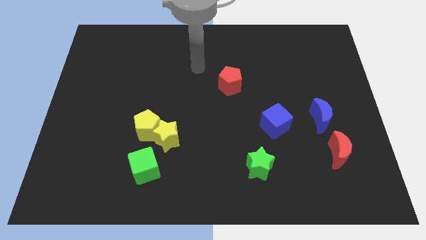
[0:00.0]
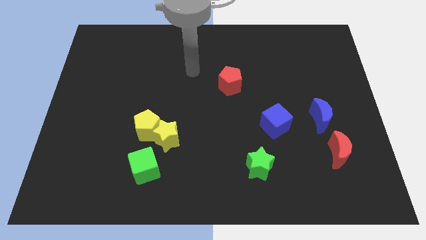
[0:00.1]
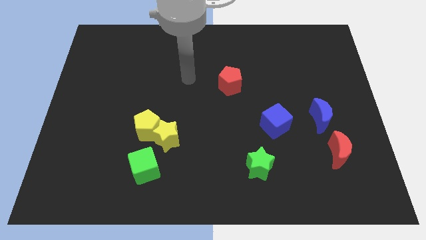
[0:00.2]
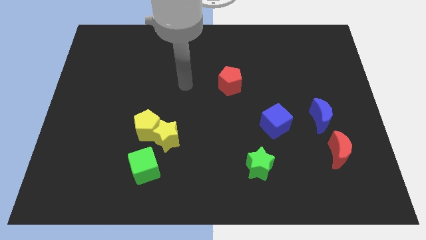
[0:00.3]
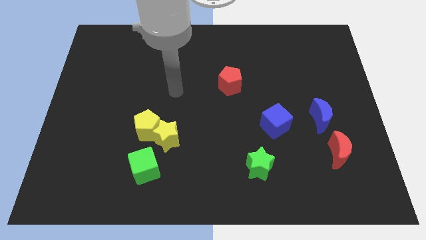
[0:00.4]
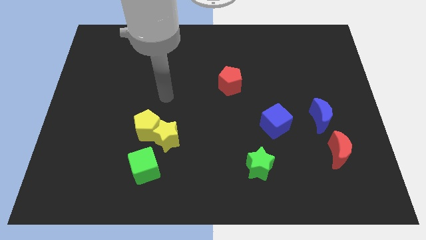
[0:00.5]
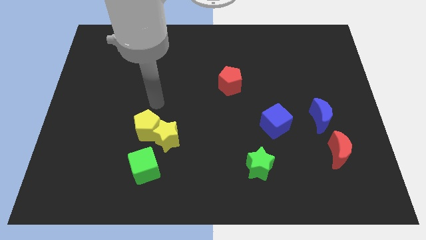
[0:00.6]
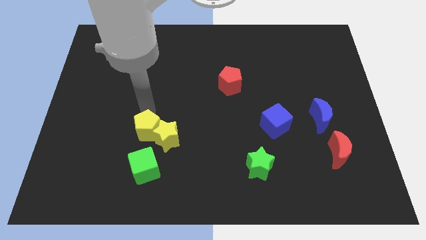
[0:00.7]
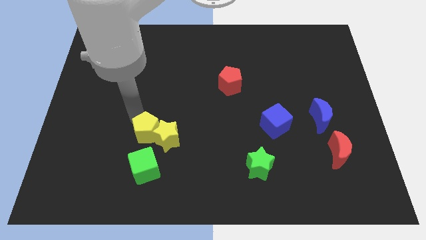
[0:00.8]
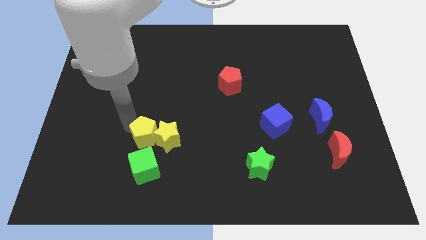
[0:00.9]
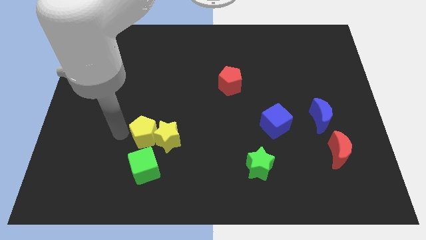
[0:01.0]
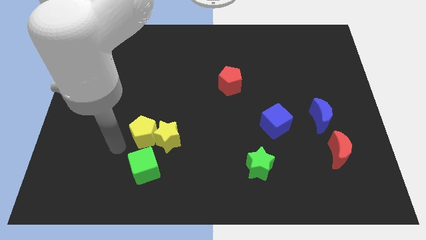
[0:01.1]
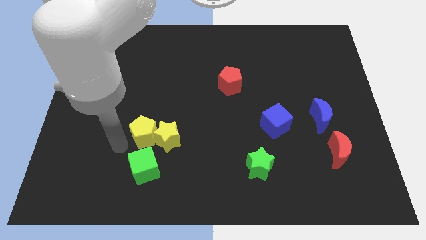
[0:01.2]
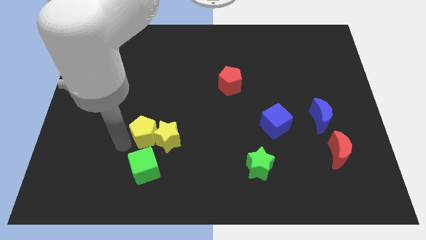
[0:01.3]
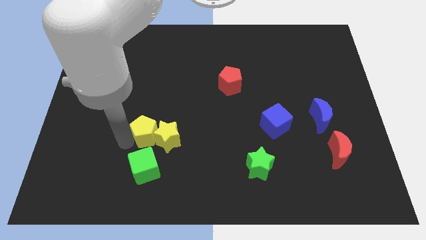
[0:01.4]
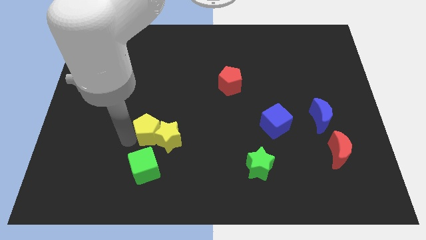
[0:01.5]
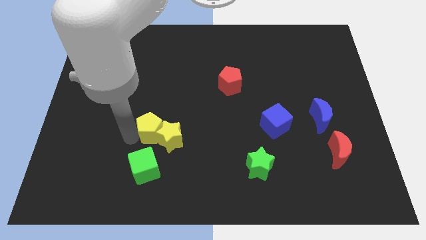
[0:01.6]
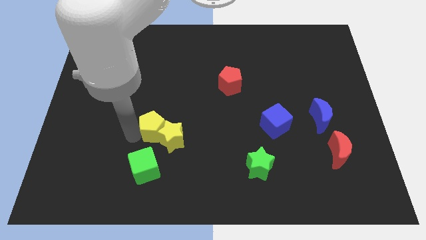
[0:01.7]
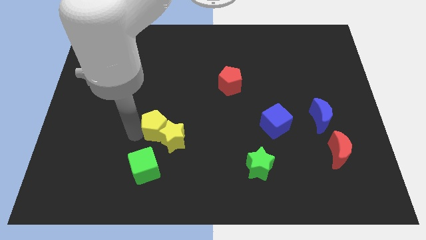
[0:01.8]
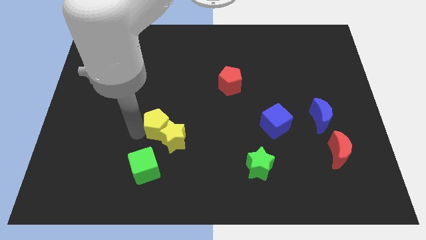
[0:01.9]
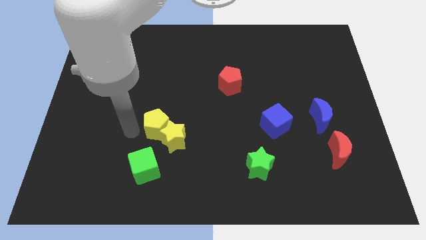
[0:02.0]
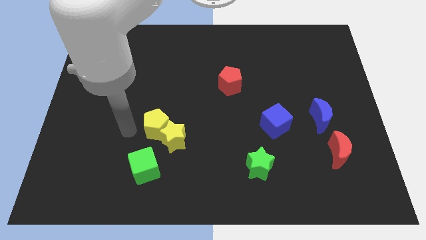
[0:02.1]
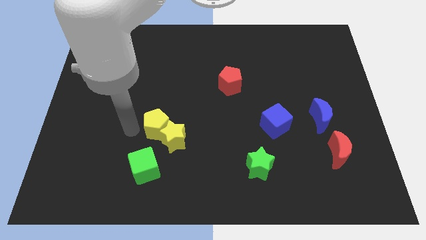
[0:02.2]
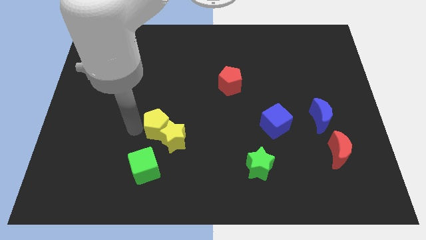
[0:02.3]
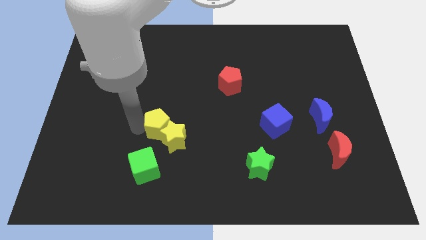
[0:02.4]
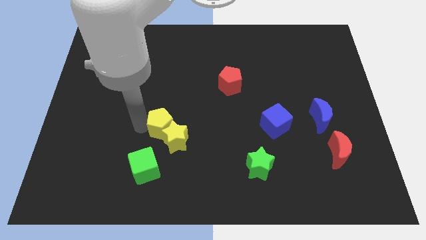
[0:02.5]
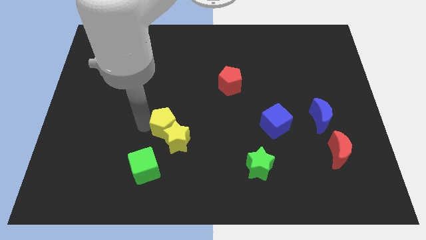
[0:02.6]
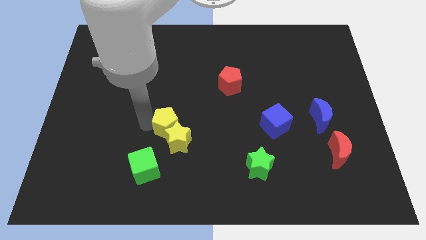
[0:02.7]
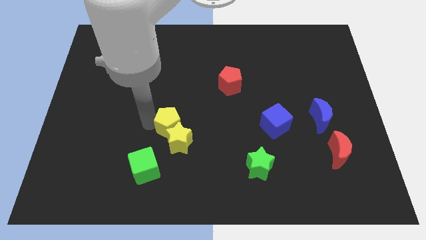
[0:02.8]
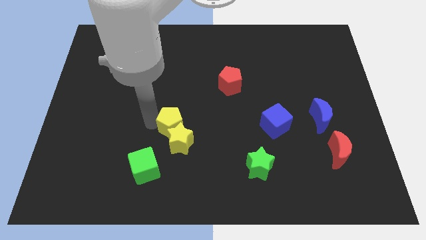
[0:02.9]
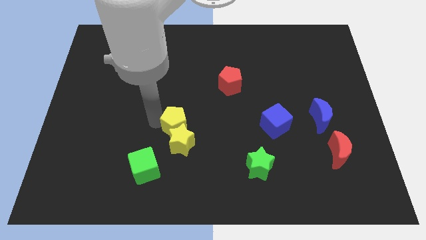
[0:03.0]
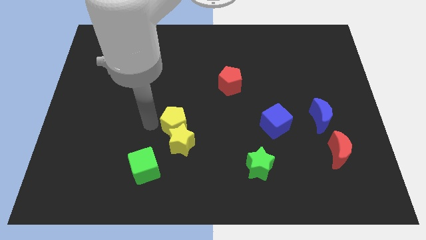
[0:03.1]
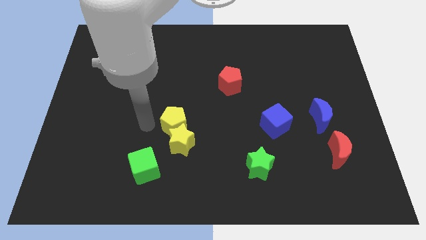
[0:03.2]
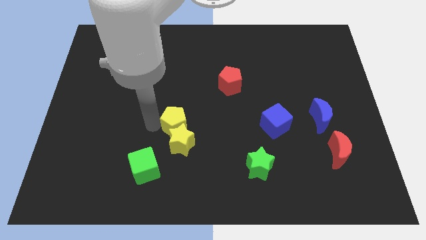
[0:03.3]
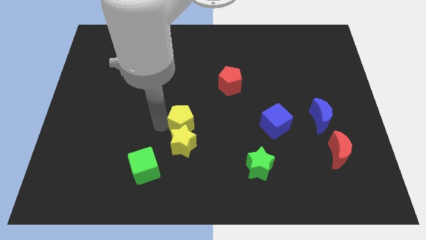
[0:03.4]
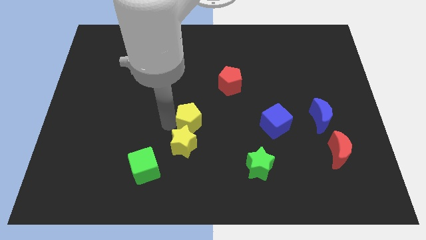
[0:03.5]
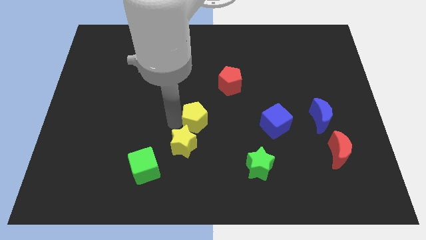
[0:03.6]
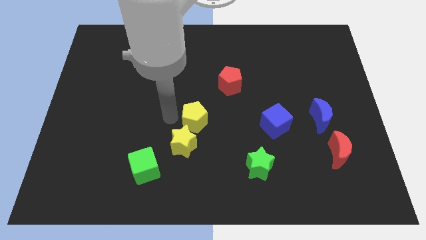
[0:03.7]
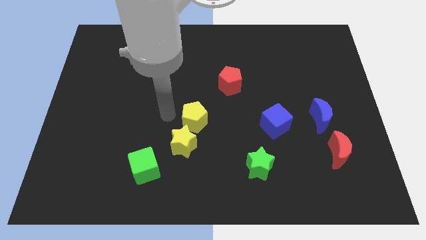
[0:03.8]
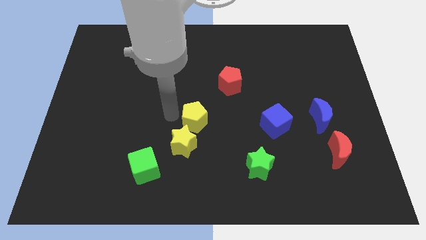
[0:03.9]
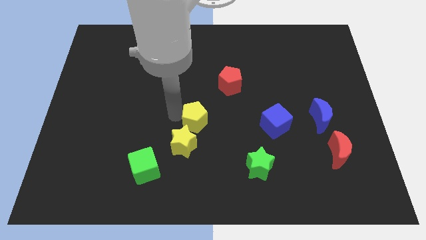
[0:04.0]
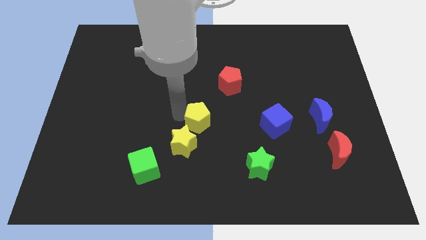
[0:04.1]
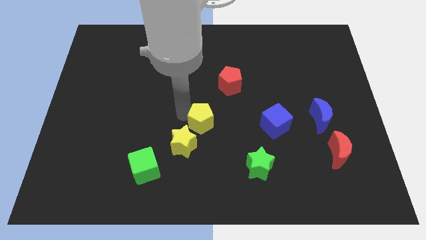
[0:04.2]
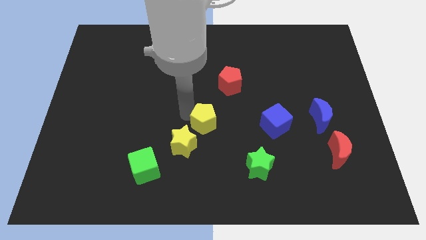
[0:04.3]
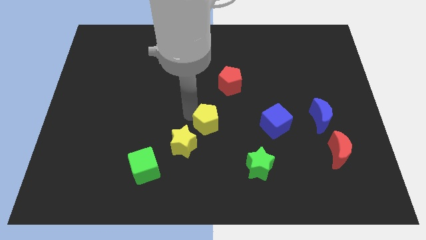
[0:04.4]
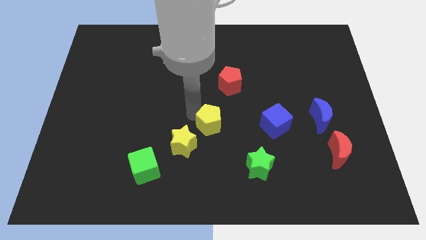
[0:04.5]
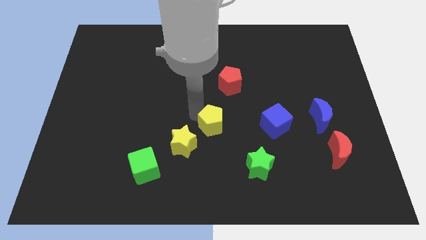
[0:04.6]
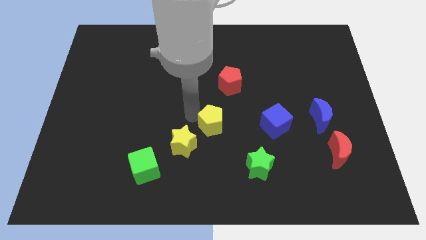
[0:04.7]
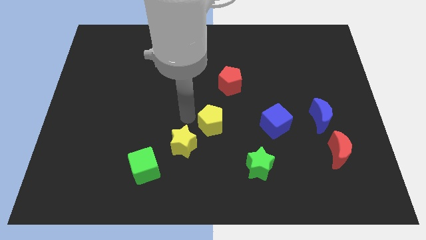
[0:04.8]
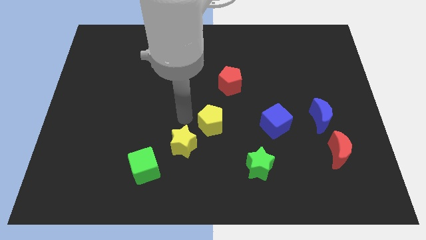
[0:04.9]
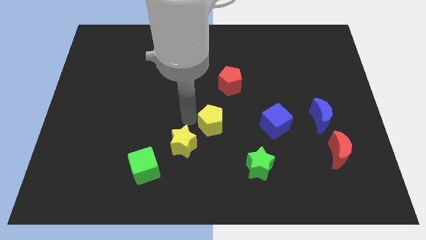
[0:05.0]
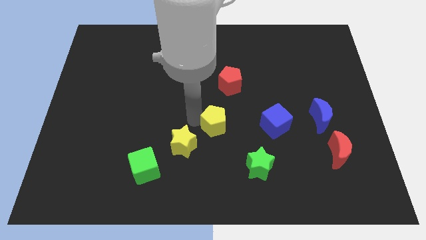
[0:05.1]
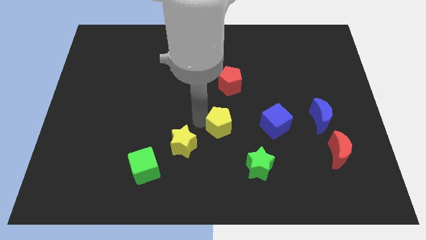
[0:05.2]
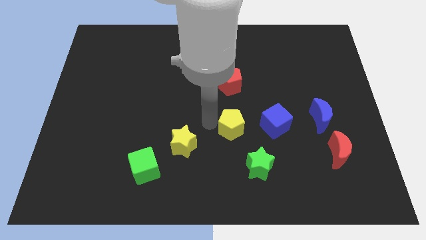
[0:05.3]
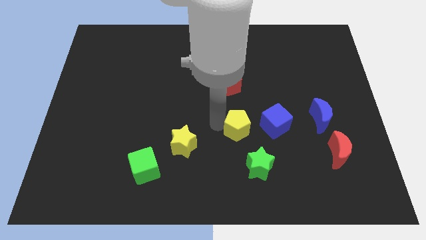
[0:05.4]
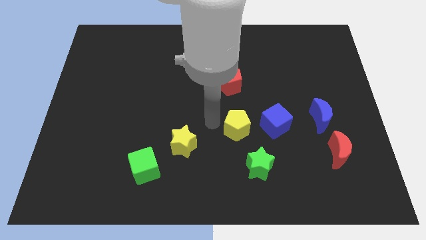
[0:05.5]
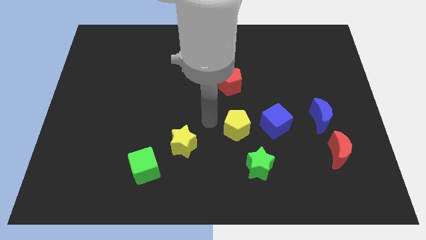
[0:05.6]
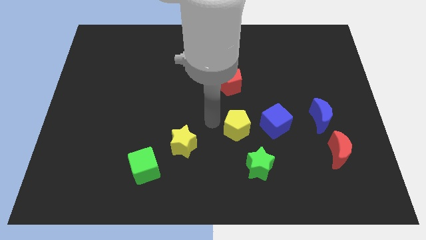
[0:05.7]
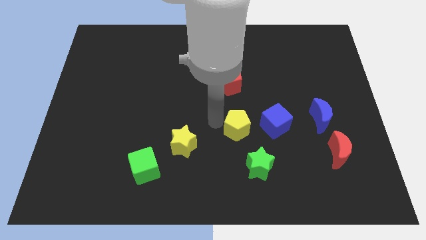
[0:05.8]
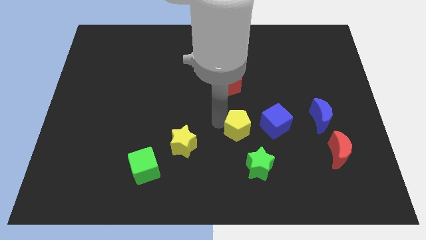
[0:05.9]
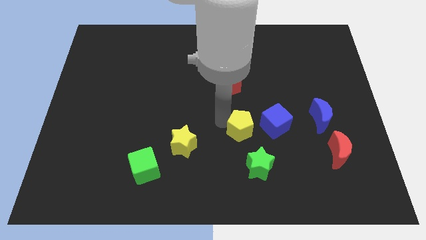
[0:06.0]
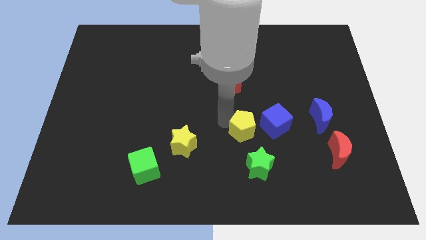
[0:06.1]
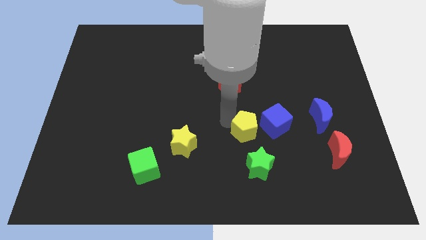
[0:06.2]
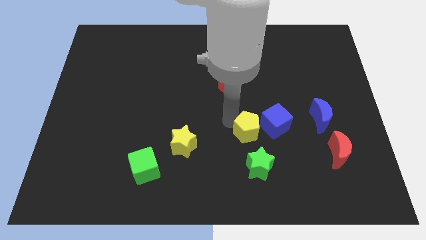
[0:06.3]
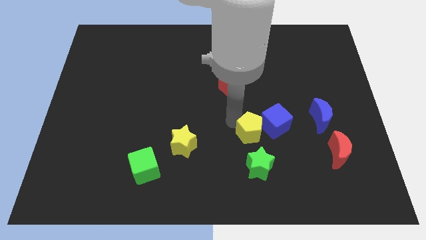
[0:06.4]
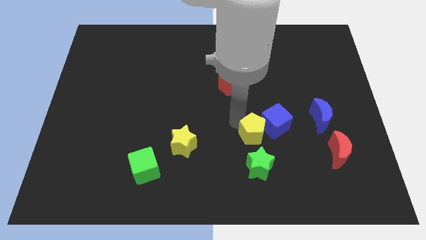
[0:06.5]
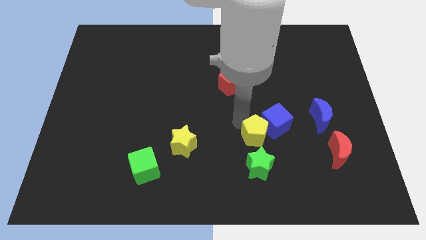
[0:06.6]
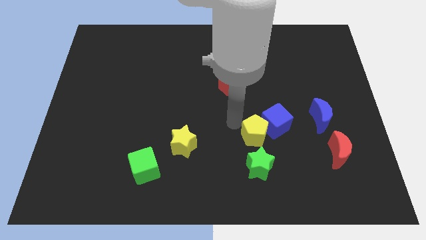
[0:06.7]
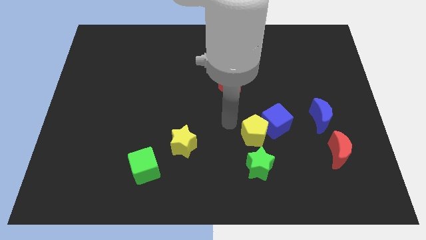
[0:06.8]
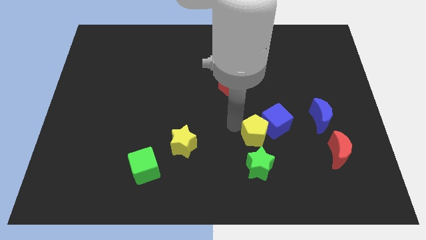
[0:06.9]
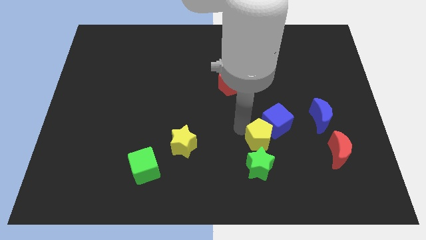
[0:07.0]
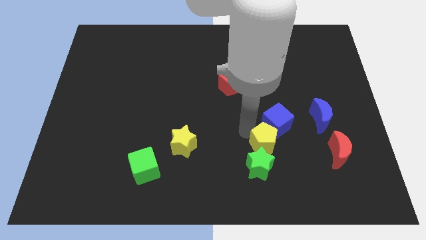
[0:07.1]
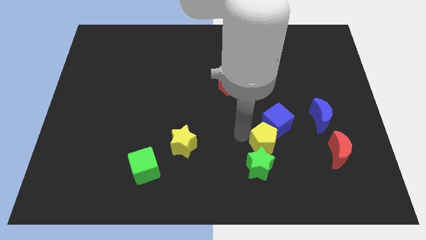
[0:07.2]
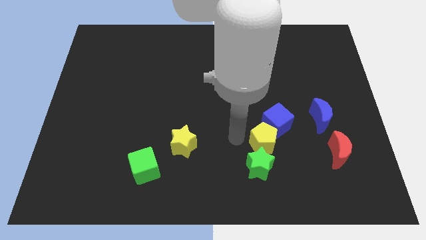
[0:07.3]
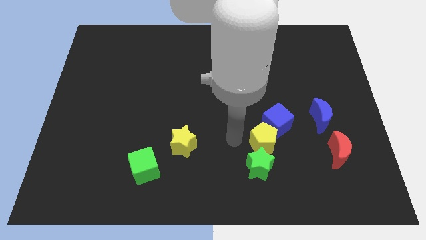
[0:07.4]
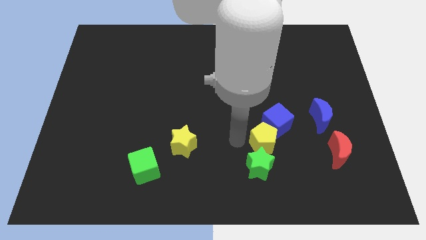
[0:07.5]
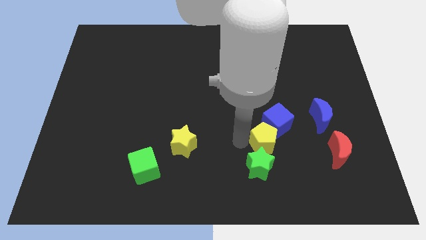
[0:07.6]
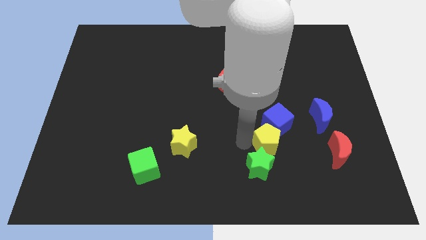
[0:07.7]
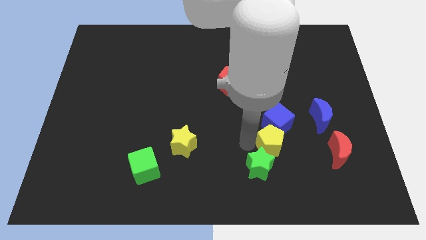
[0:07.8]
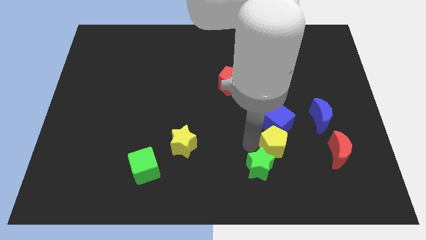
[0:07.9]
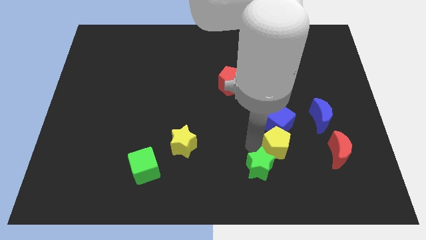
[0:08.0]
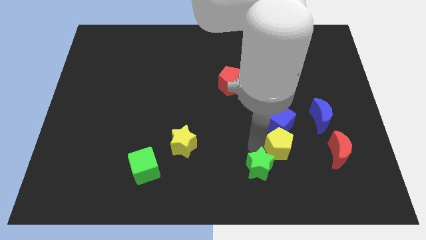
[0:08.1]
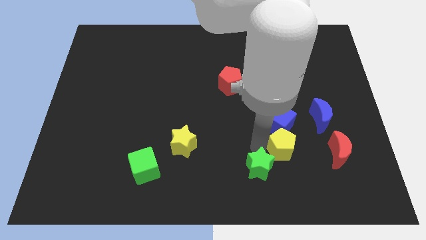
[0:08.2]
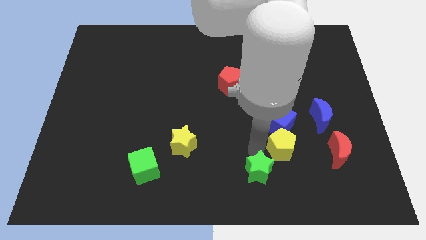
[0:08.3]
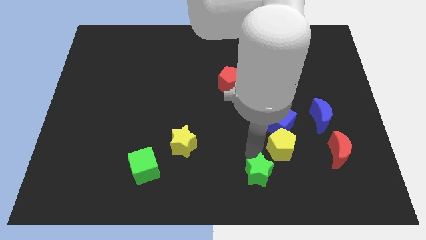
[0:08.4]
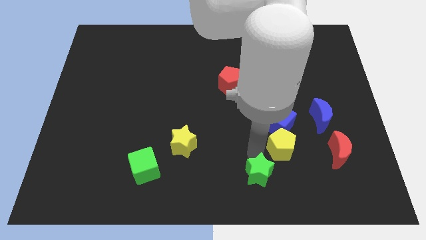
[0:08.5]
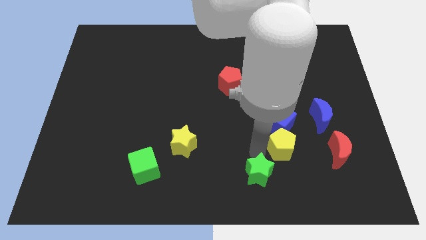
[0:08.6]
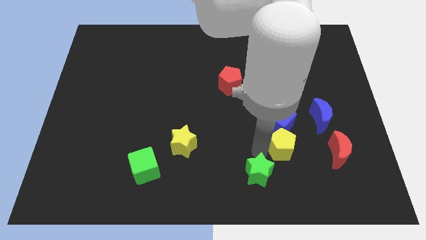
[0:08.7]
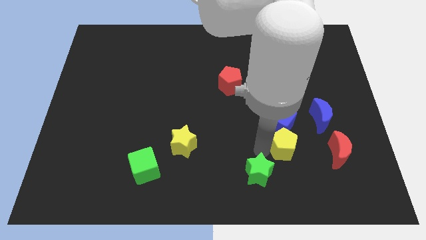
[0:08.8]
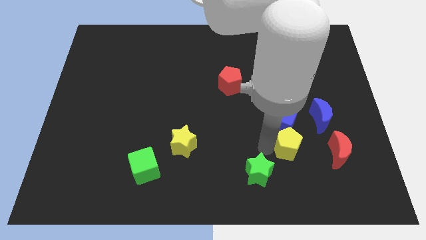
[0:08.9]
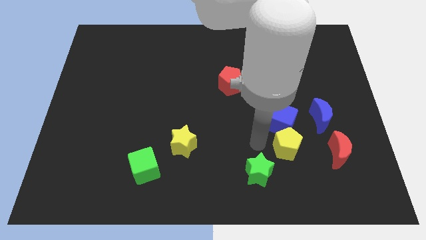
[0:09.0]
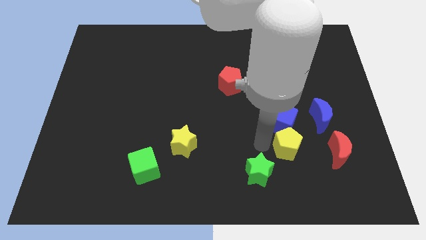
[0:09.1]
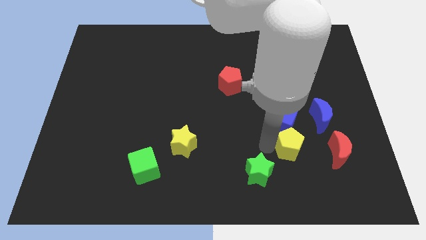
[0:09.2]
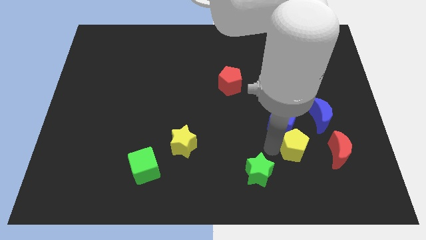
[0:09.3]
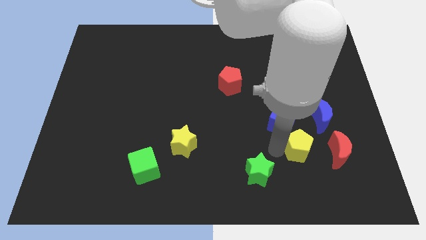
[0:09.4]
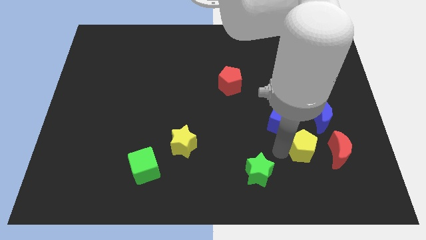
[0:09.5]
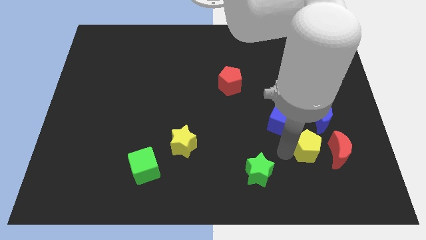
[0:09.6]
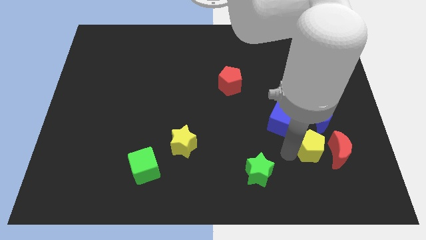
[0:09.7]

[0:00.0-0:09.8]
push the yellow pentagon to the red moon
